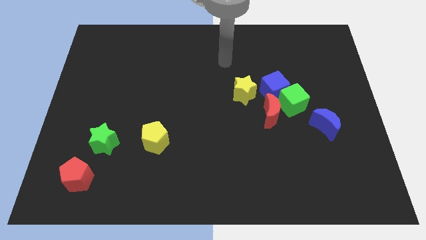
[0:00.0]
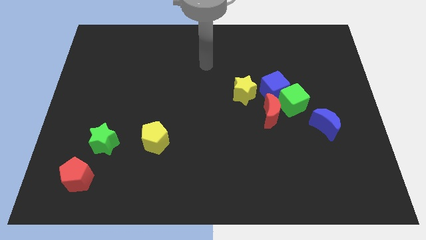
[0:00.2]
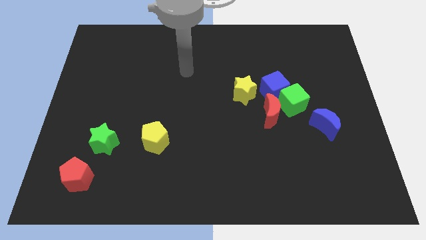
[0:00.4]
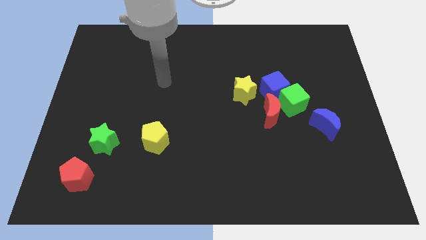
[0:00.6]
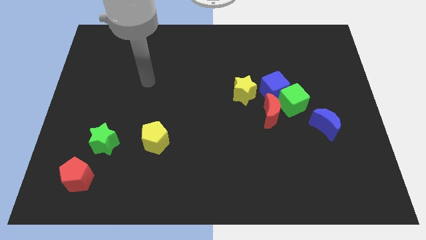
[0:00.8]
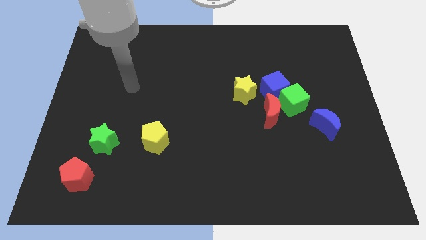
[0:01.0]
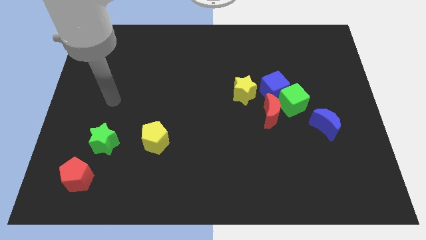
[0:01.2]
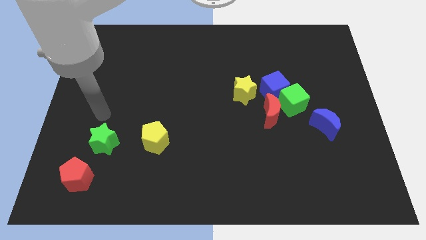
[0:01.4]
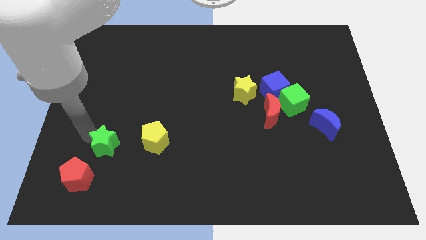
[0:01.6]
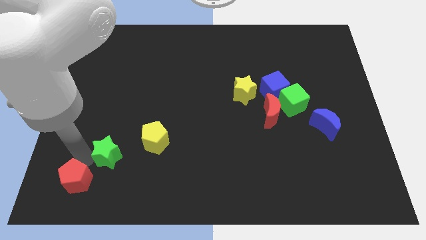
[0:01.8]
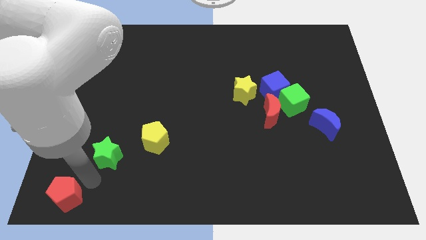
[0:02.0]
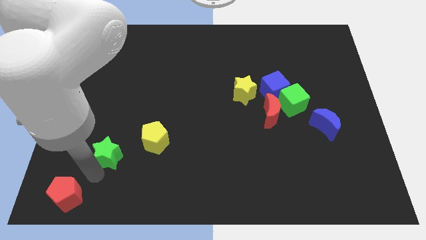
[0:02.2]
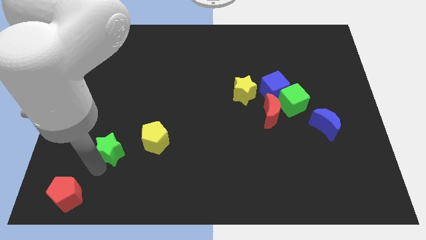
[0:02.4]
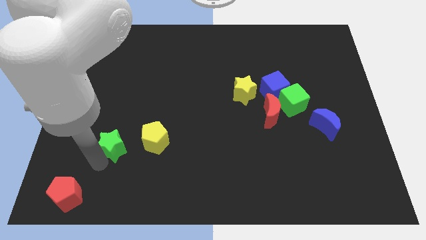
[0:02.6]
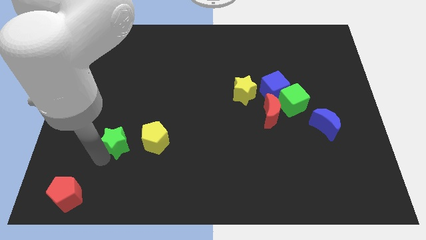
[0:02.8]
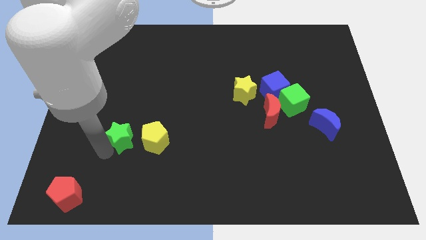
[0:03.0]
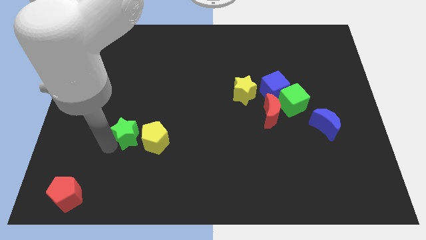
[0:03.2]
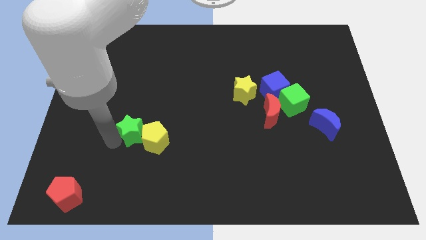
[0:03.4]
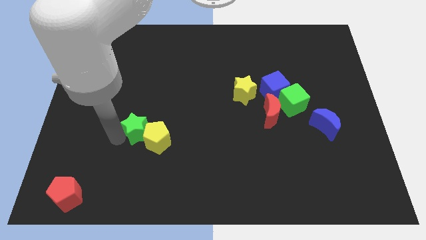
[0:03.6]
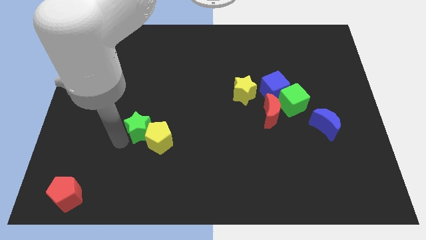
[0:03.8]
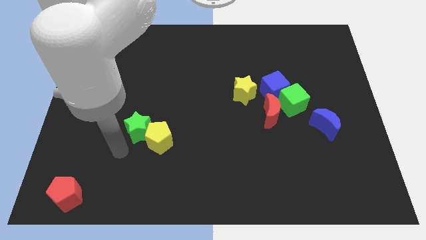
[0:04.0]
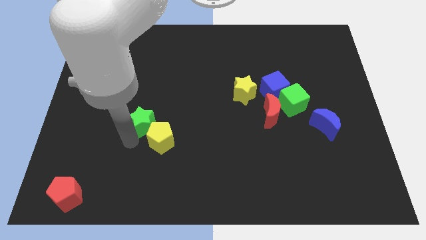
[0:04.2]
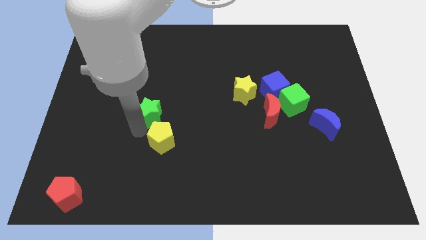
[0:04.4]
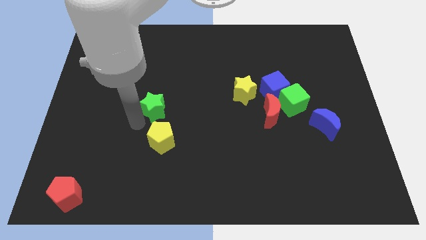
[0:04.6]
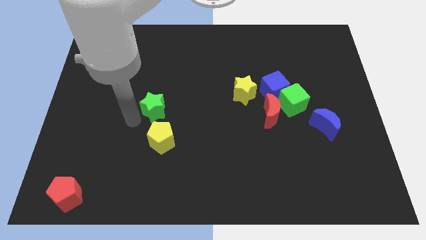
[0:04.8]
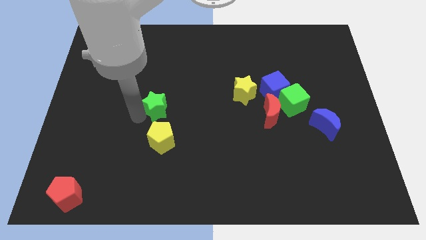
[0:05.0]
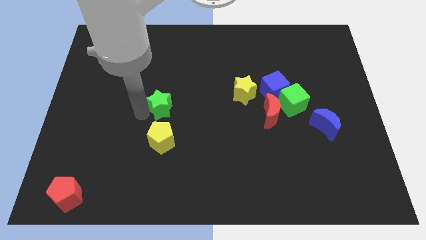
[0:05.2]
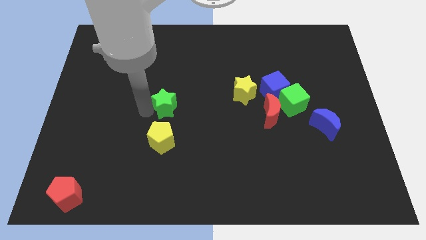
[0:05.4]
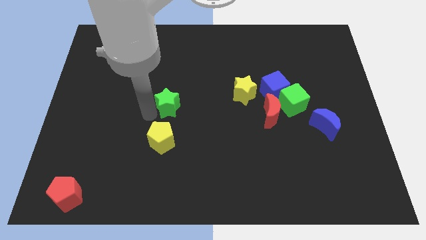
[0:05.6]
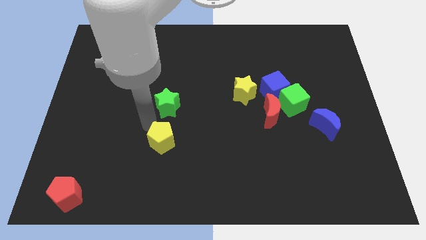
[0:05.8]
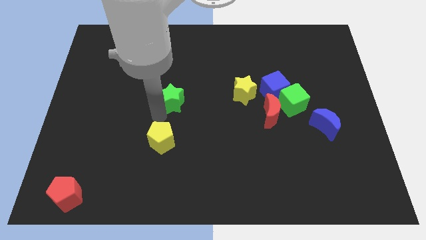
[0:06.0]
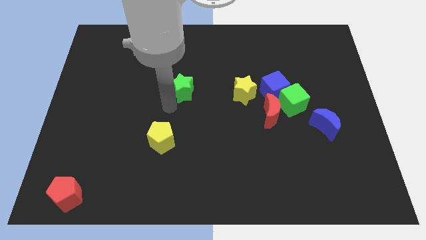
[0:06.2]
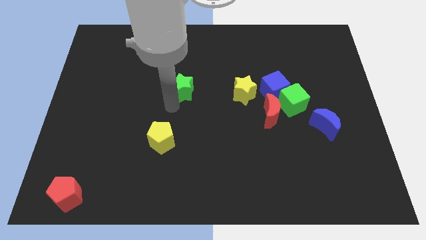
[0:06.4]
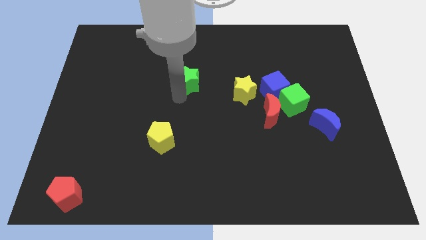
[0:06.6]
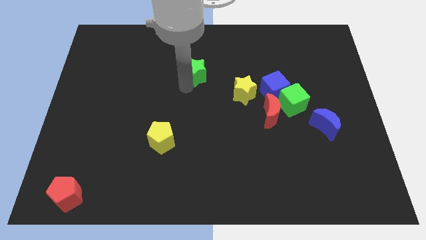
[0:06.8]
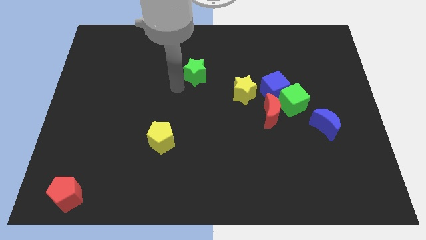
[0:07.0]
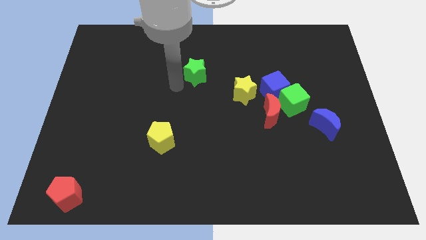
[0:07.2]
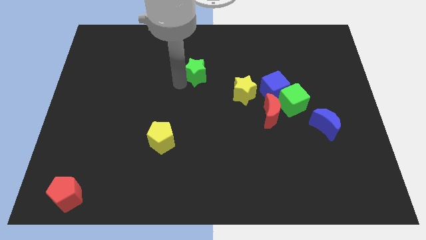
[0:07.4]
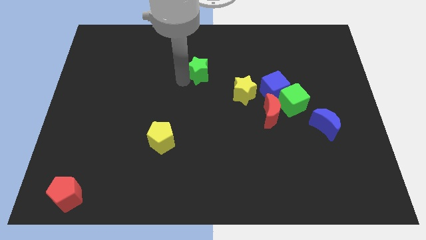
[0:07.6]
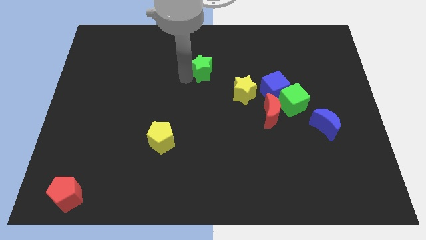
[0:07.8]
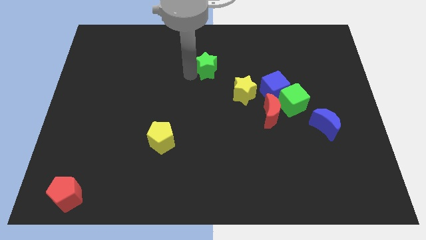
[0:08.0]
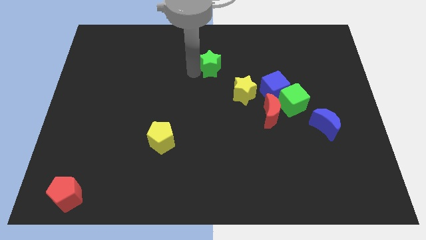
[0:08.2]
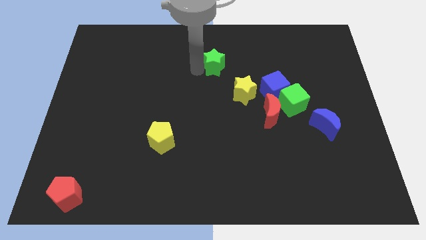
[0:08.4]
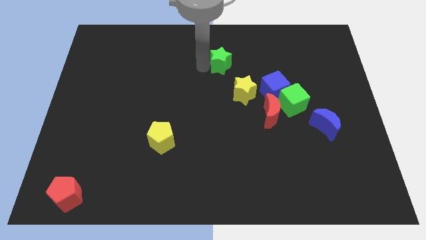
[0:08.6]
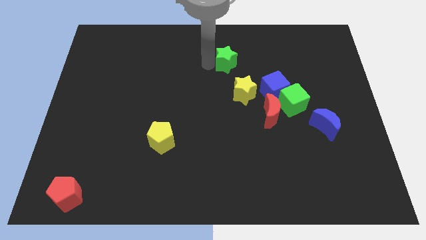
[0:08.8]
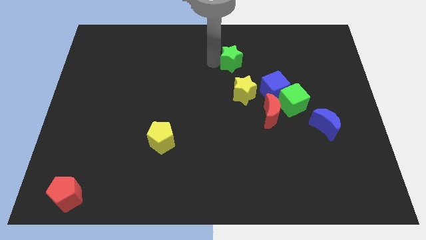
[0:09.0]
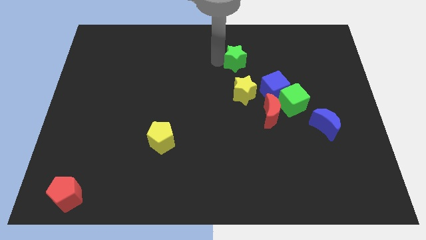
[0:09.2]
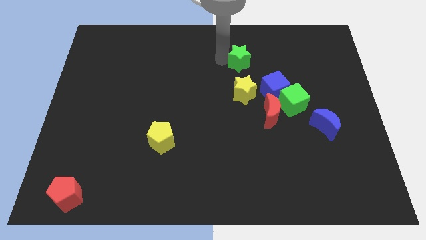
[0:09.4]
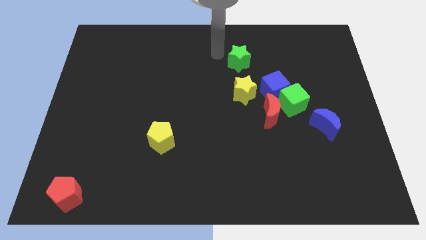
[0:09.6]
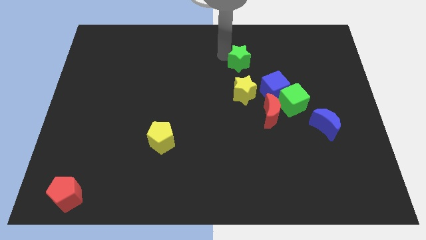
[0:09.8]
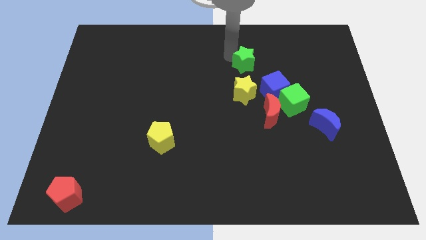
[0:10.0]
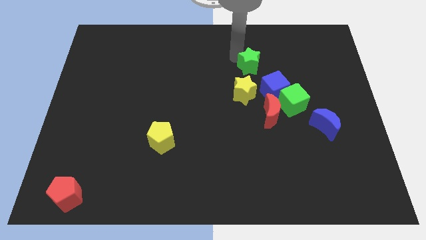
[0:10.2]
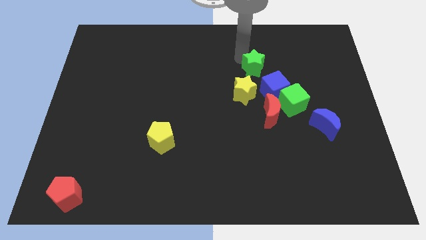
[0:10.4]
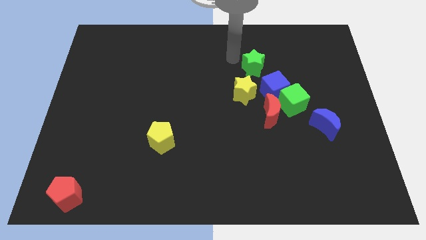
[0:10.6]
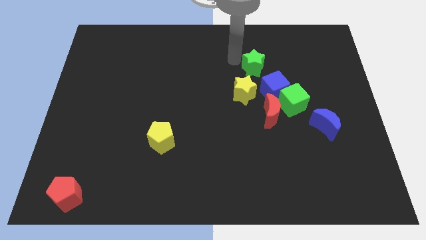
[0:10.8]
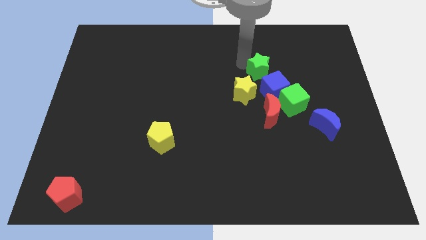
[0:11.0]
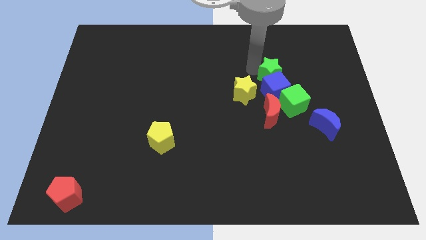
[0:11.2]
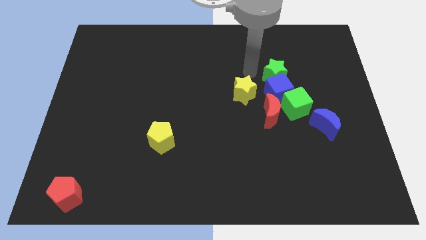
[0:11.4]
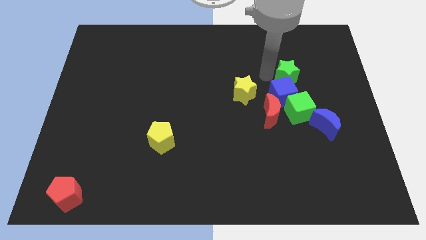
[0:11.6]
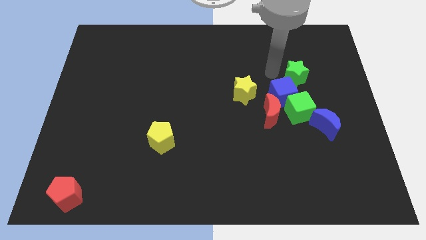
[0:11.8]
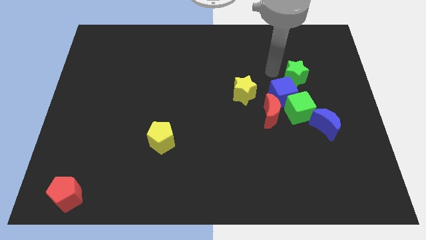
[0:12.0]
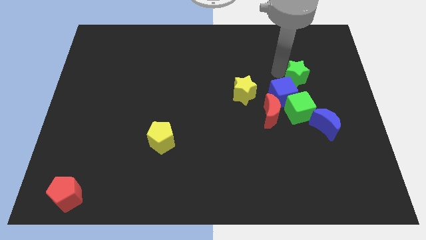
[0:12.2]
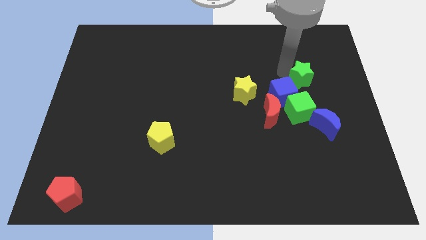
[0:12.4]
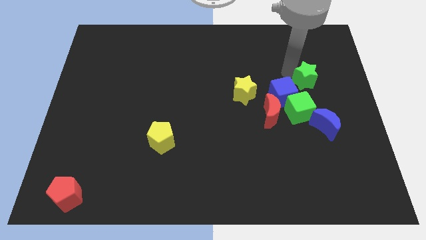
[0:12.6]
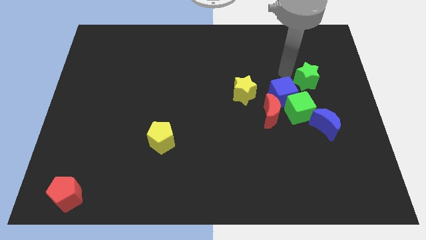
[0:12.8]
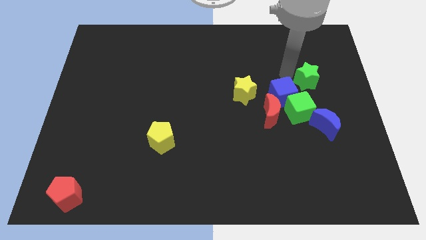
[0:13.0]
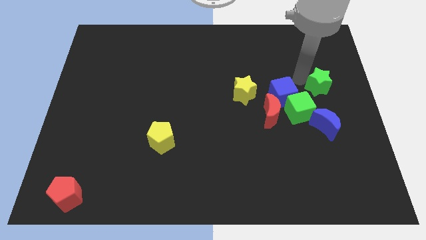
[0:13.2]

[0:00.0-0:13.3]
put the green star to the right side

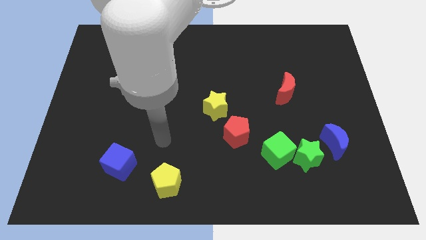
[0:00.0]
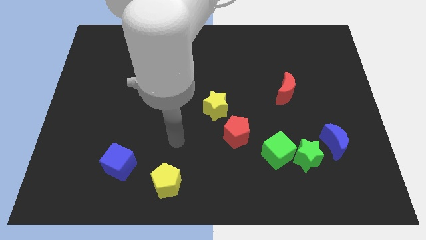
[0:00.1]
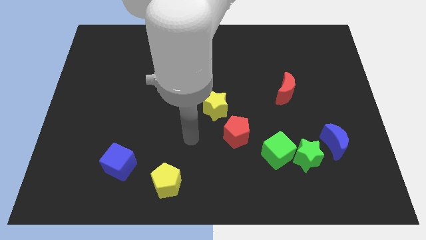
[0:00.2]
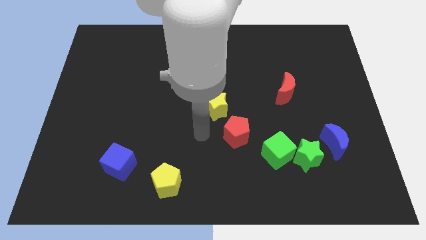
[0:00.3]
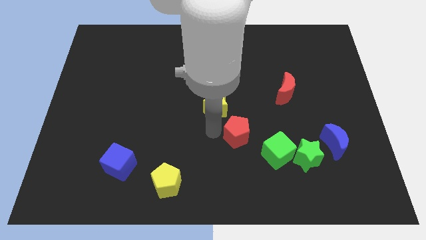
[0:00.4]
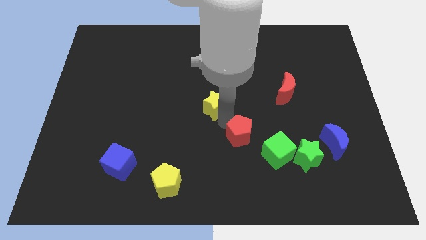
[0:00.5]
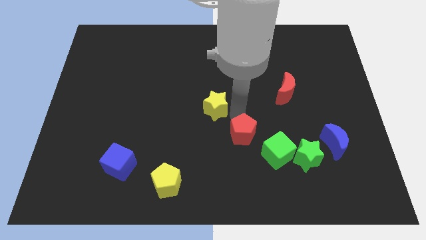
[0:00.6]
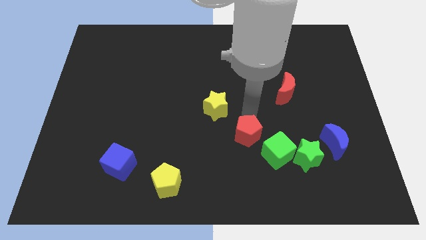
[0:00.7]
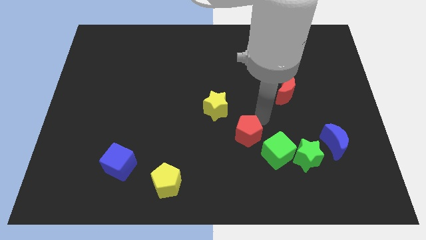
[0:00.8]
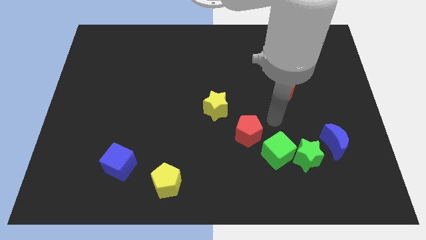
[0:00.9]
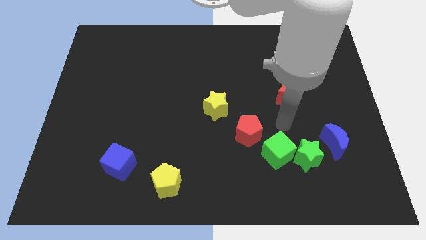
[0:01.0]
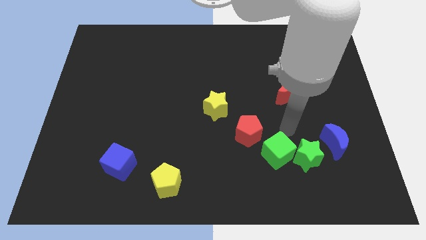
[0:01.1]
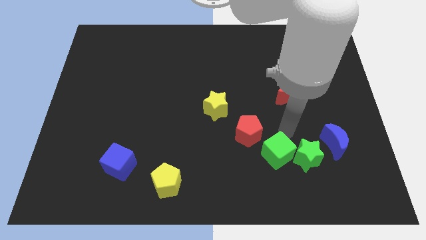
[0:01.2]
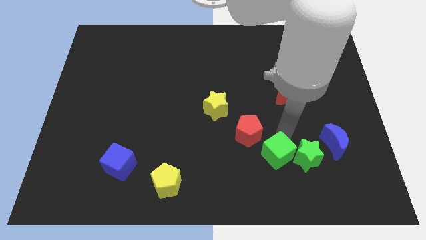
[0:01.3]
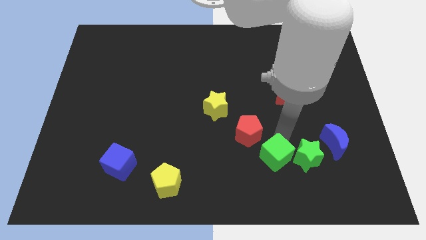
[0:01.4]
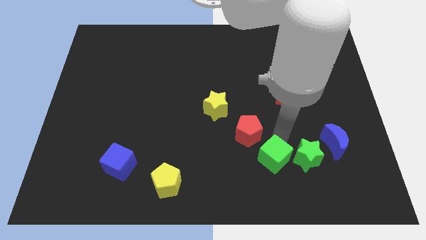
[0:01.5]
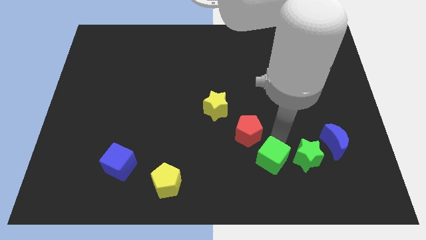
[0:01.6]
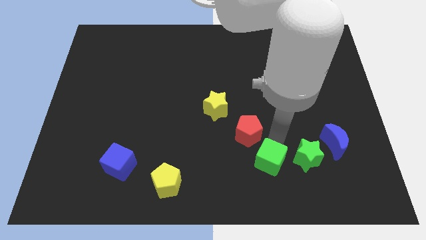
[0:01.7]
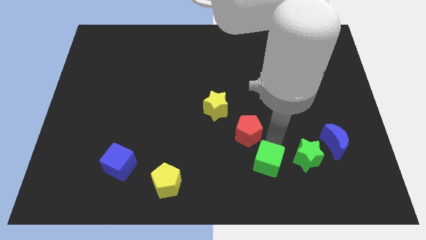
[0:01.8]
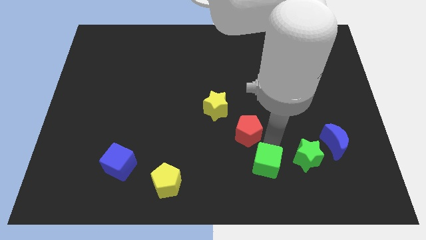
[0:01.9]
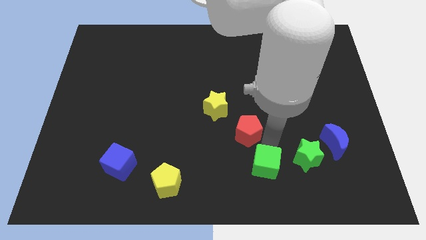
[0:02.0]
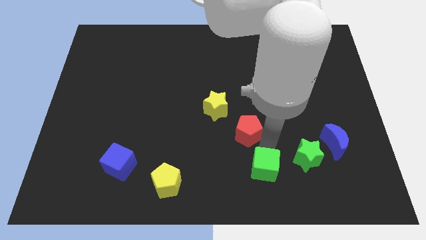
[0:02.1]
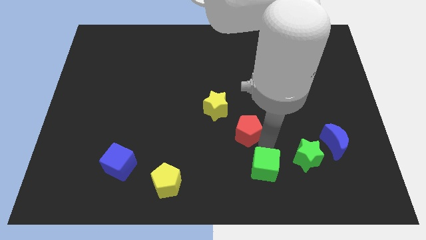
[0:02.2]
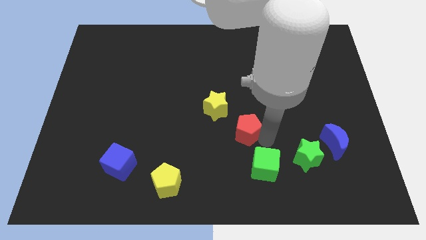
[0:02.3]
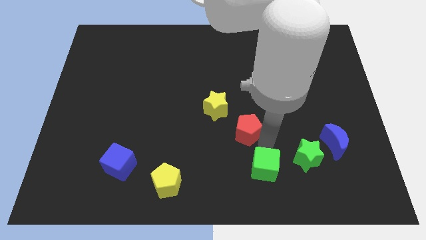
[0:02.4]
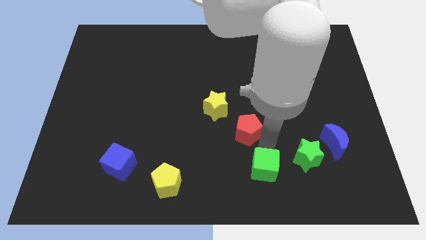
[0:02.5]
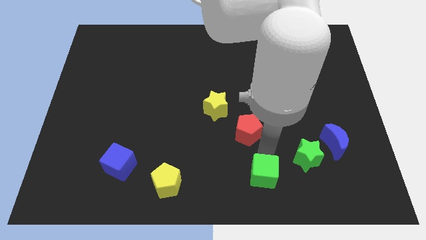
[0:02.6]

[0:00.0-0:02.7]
slide the green cube to the bottom side
